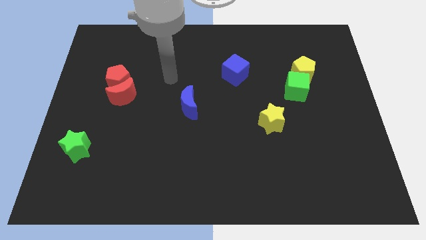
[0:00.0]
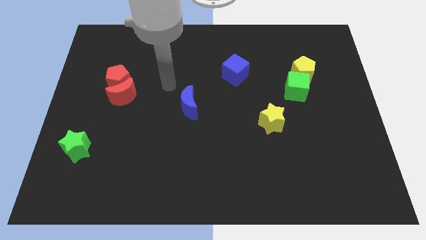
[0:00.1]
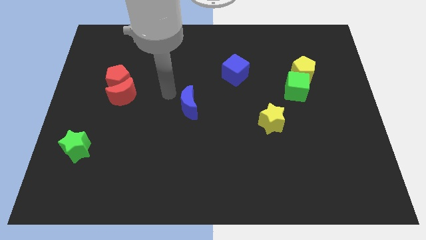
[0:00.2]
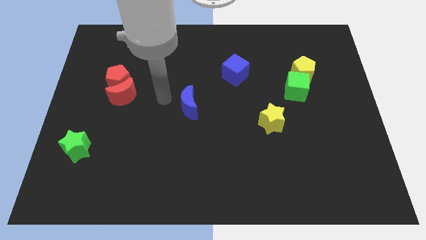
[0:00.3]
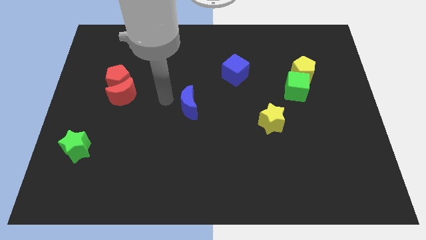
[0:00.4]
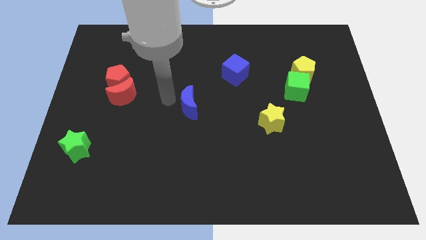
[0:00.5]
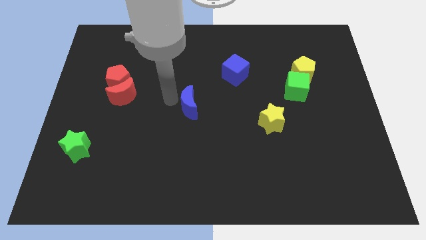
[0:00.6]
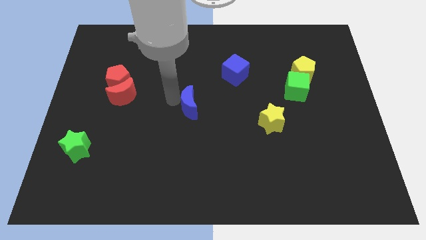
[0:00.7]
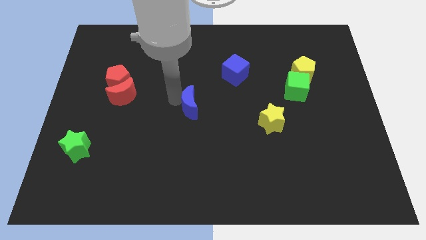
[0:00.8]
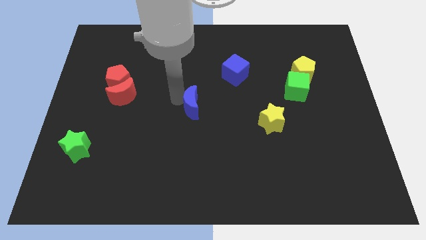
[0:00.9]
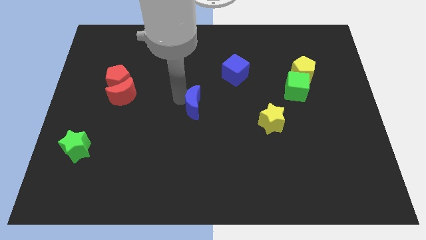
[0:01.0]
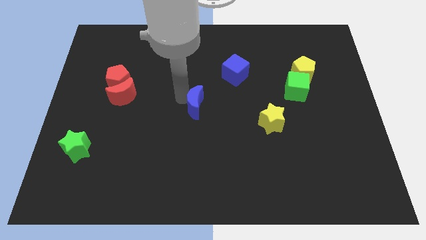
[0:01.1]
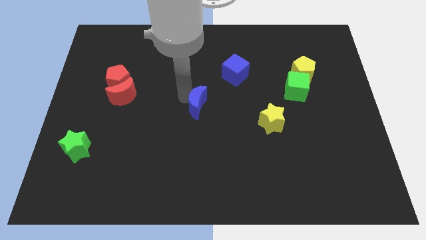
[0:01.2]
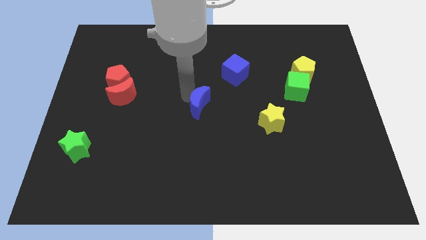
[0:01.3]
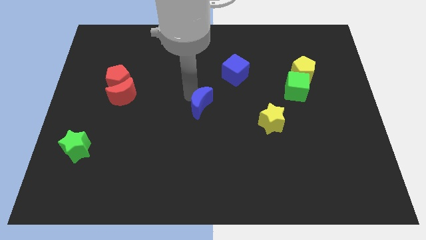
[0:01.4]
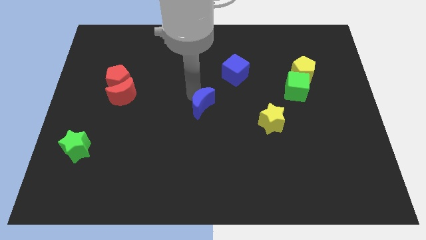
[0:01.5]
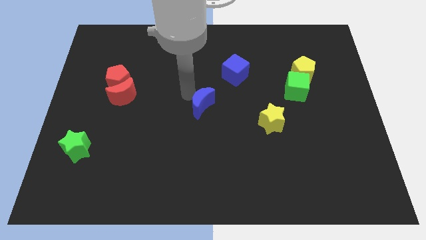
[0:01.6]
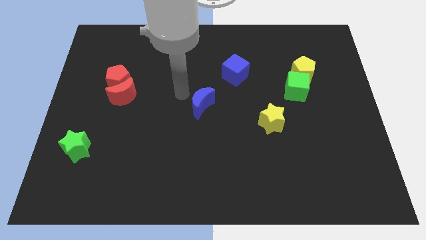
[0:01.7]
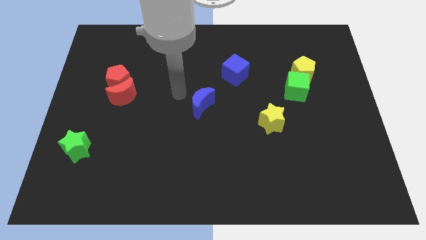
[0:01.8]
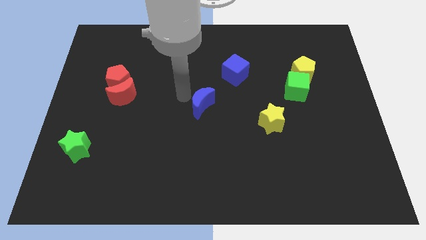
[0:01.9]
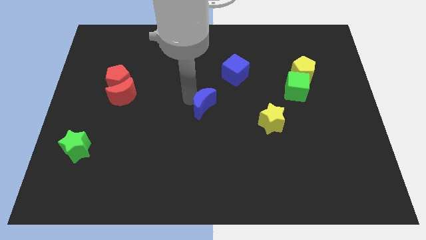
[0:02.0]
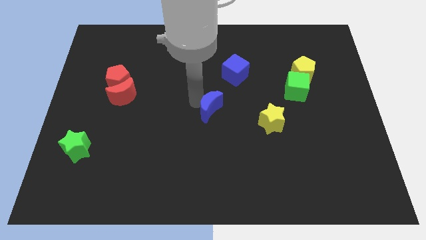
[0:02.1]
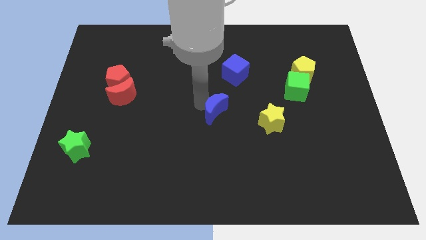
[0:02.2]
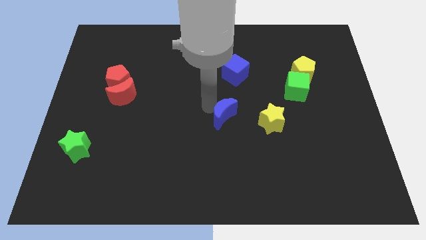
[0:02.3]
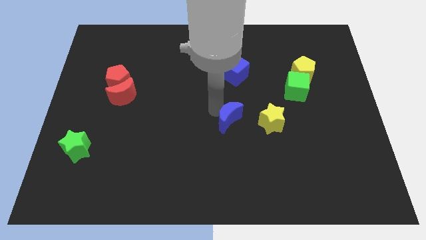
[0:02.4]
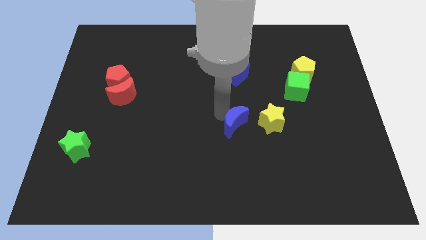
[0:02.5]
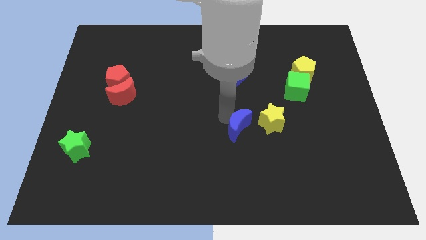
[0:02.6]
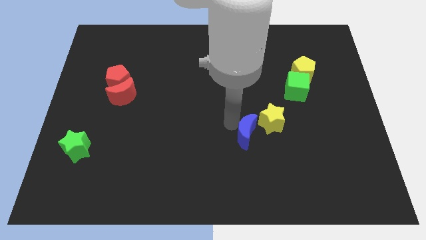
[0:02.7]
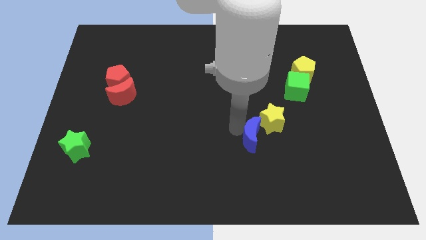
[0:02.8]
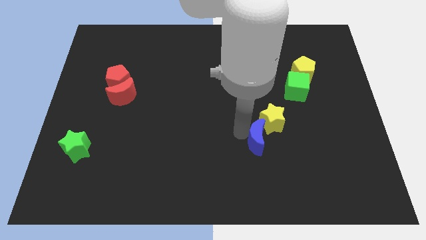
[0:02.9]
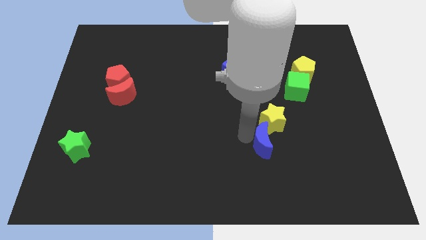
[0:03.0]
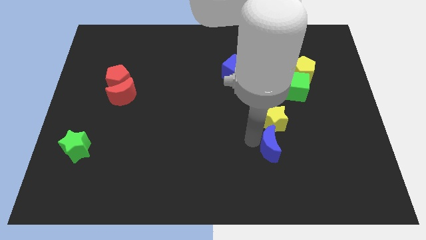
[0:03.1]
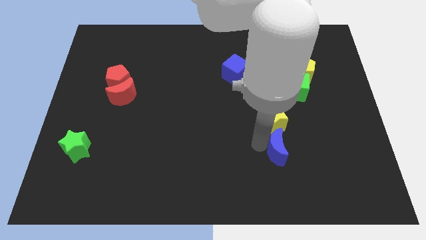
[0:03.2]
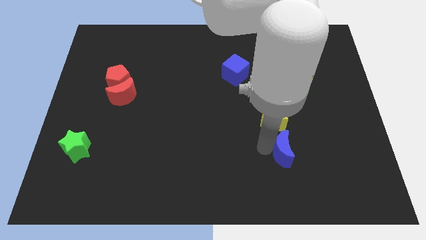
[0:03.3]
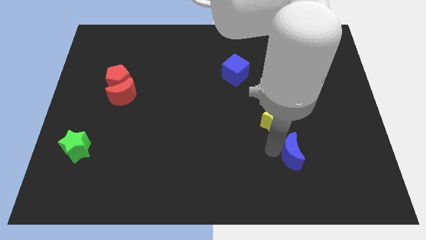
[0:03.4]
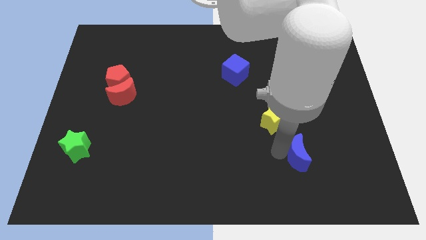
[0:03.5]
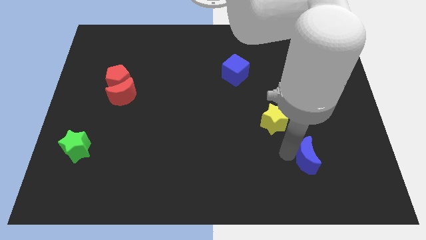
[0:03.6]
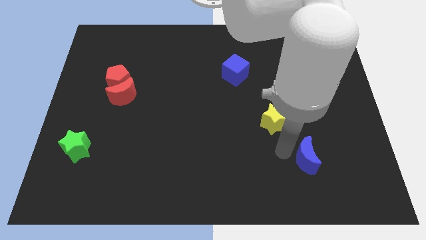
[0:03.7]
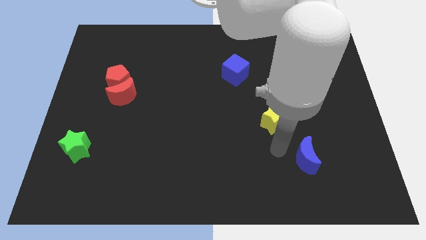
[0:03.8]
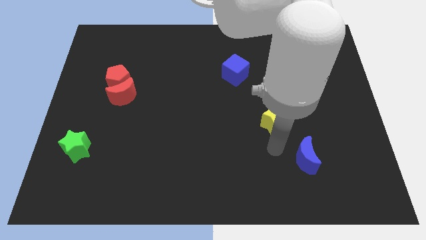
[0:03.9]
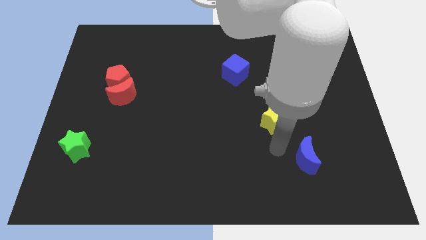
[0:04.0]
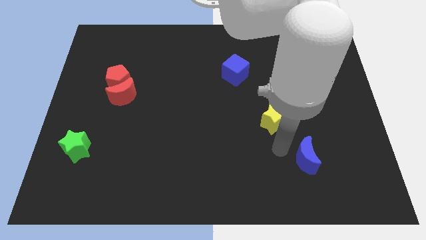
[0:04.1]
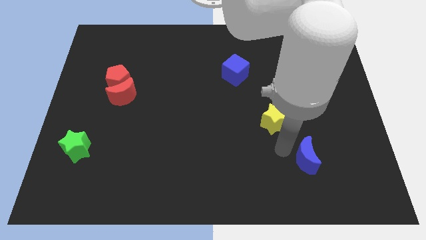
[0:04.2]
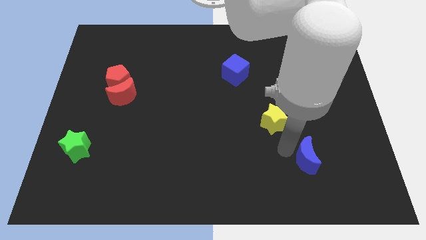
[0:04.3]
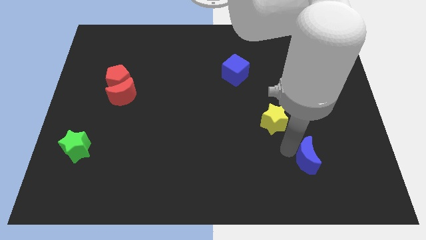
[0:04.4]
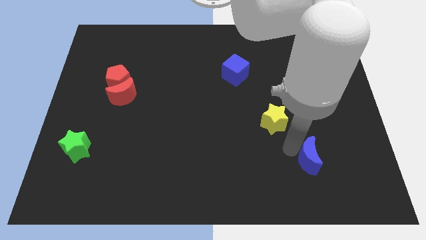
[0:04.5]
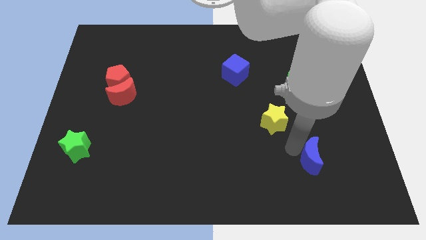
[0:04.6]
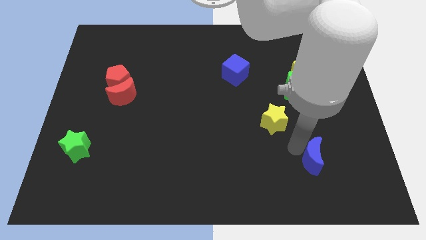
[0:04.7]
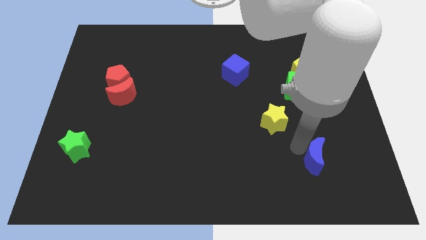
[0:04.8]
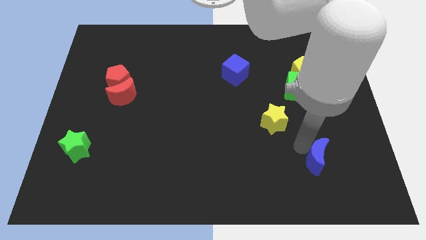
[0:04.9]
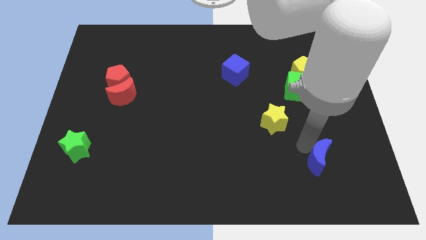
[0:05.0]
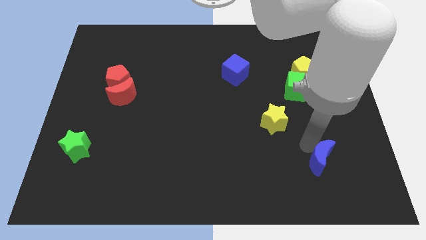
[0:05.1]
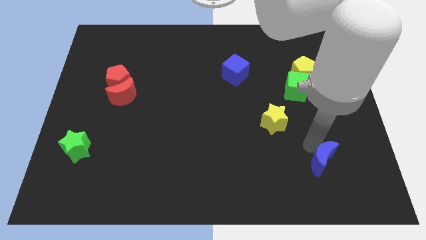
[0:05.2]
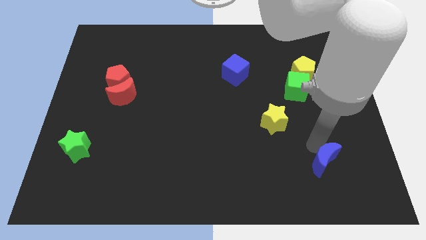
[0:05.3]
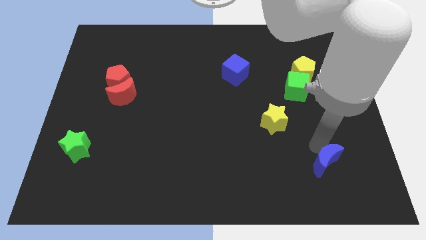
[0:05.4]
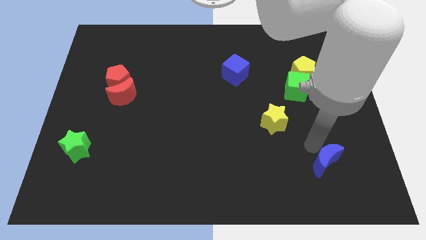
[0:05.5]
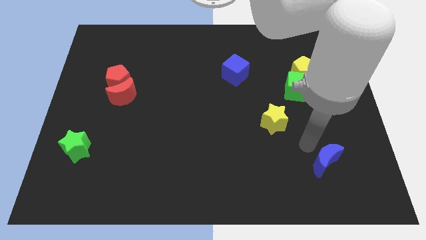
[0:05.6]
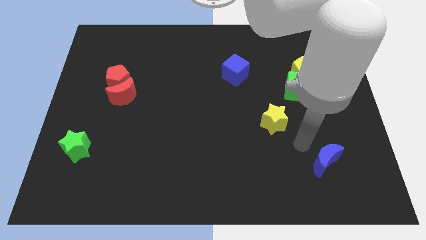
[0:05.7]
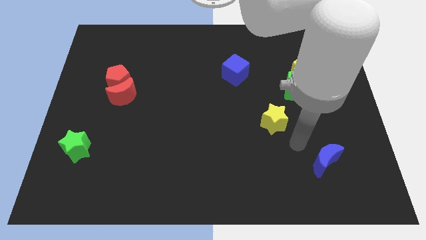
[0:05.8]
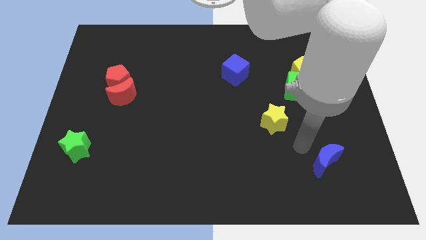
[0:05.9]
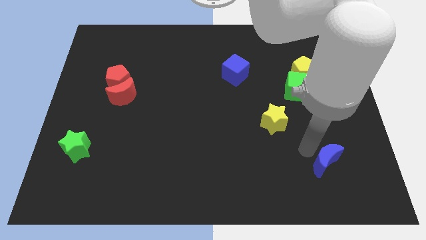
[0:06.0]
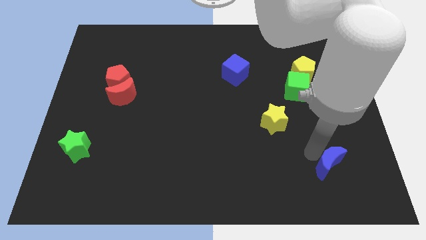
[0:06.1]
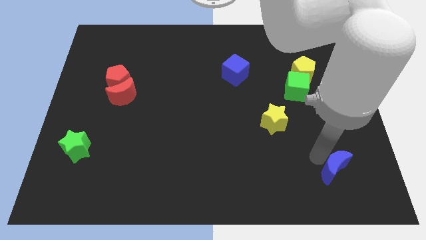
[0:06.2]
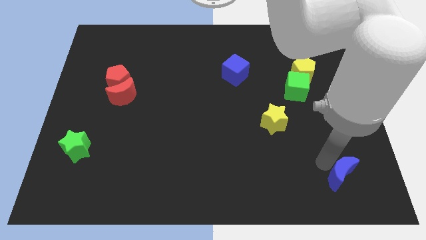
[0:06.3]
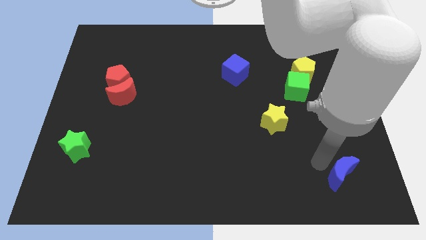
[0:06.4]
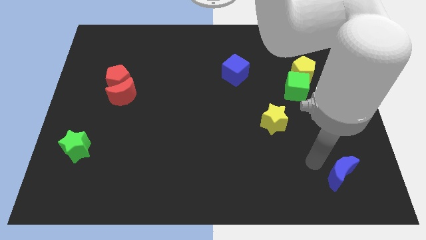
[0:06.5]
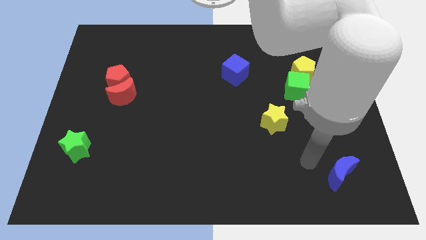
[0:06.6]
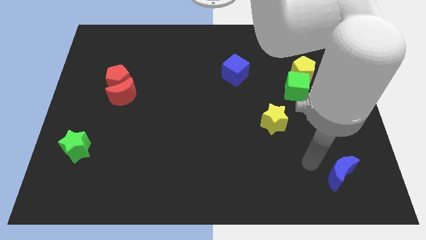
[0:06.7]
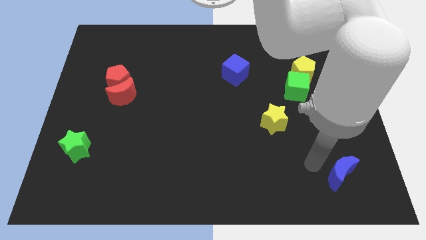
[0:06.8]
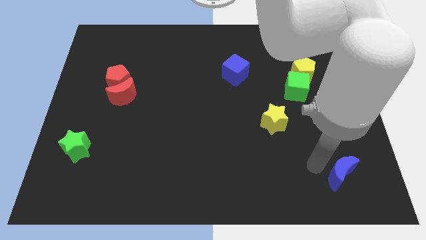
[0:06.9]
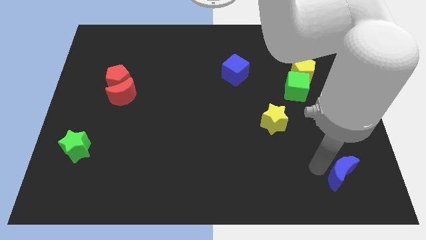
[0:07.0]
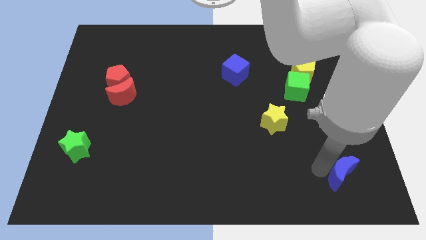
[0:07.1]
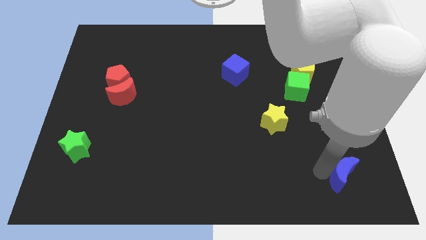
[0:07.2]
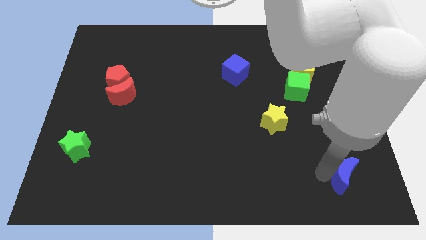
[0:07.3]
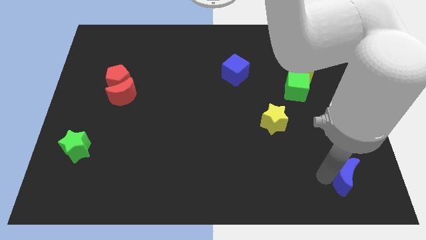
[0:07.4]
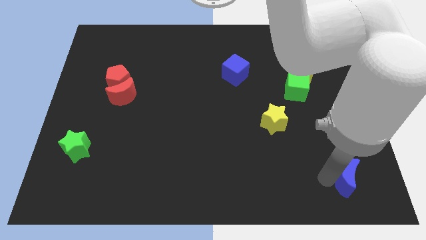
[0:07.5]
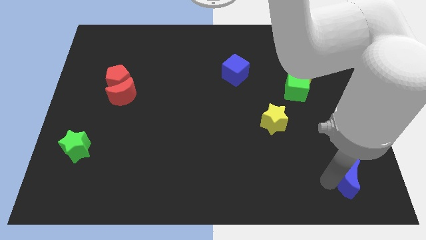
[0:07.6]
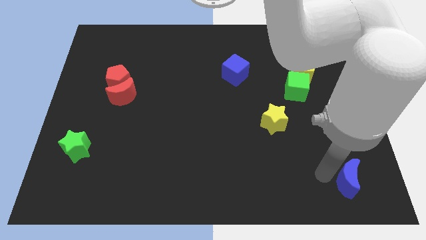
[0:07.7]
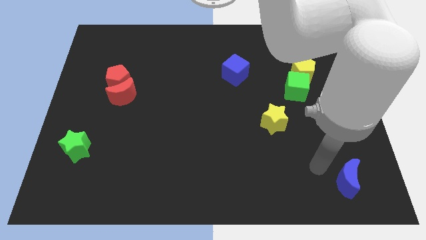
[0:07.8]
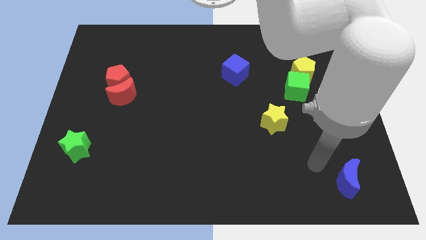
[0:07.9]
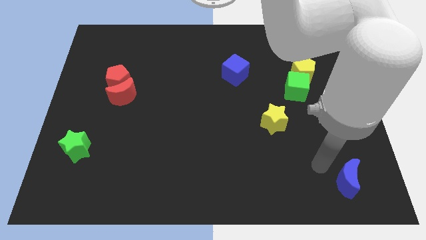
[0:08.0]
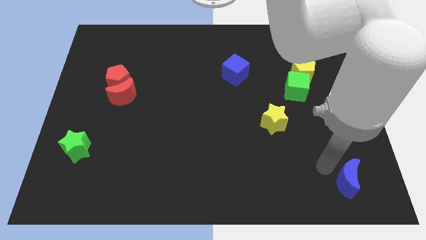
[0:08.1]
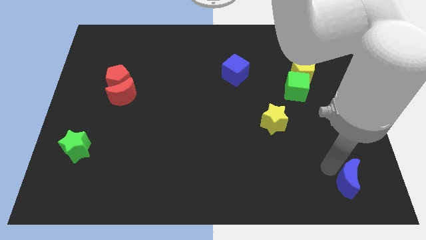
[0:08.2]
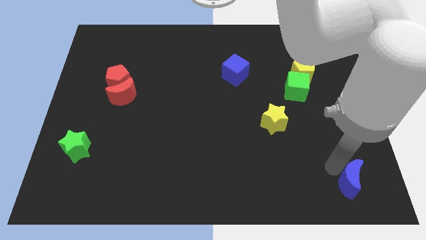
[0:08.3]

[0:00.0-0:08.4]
put the blue moon to the bottom right
